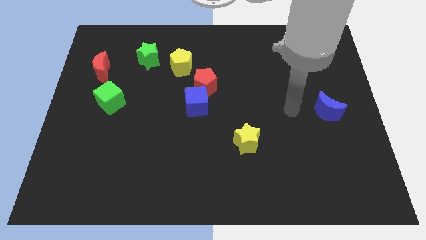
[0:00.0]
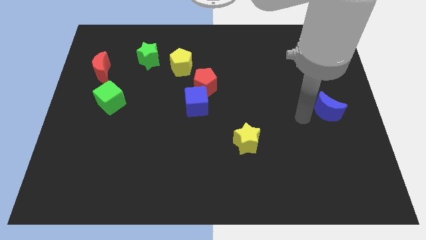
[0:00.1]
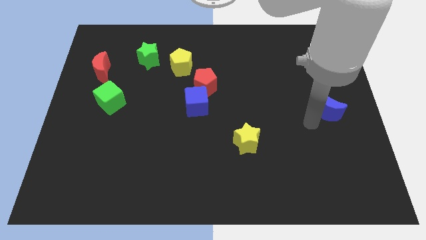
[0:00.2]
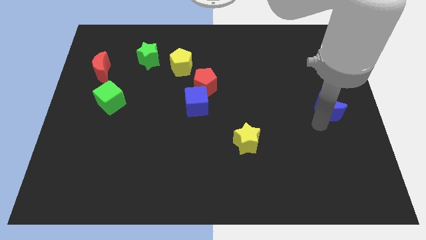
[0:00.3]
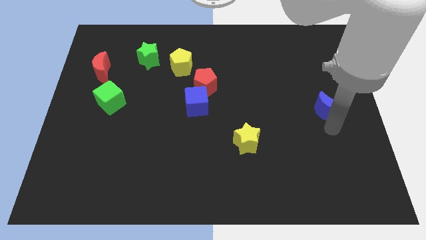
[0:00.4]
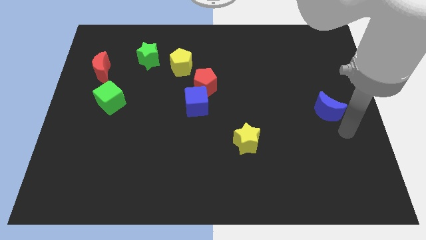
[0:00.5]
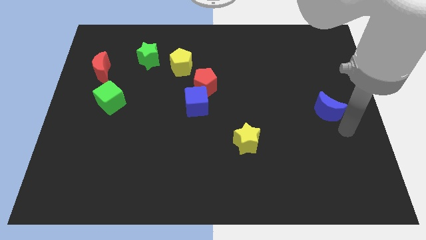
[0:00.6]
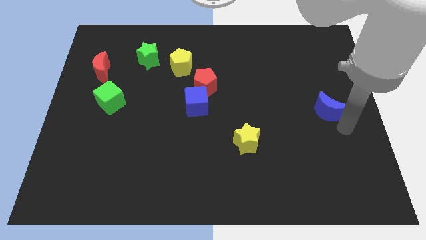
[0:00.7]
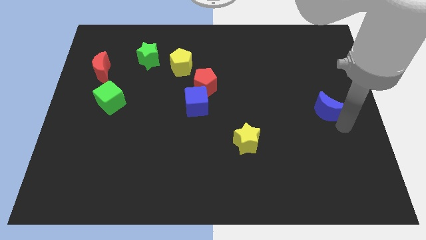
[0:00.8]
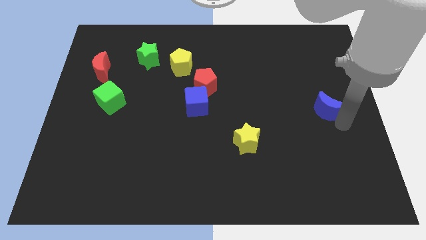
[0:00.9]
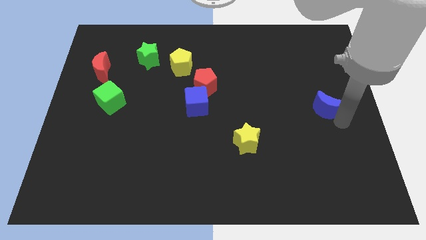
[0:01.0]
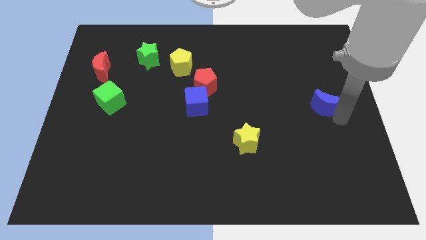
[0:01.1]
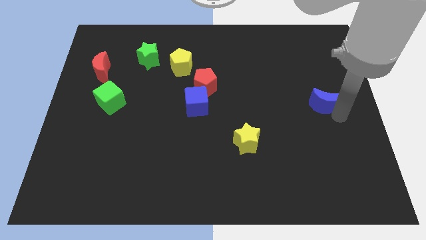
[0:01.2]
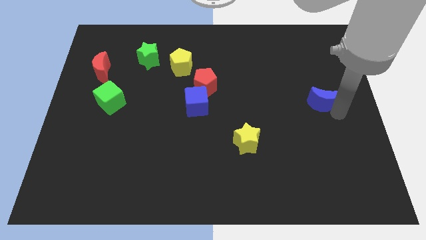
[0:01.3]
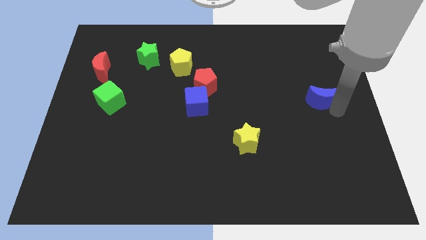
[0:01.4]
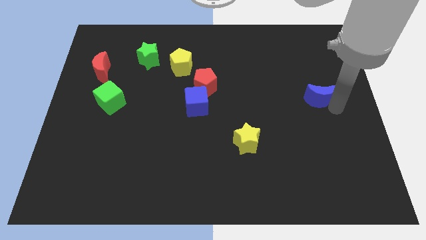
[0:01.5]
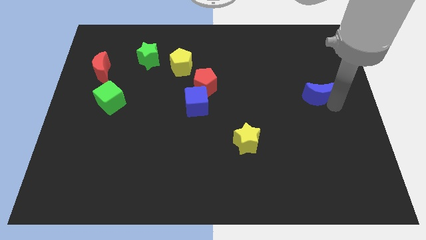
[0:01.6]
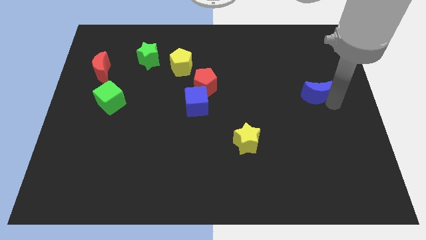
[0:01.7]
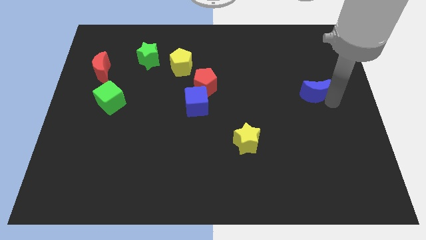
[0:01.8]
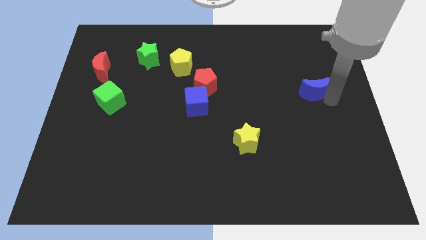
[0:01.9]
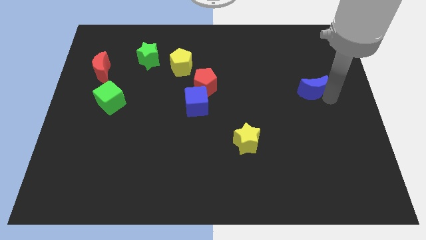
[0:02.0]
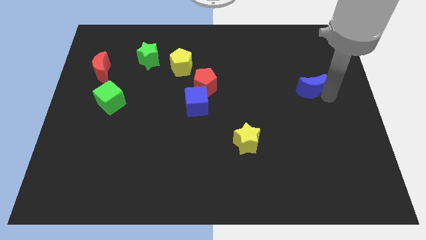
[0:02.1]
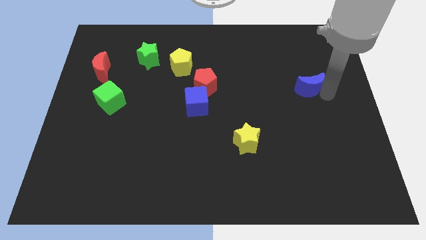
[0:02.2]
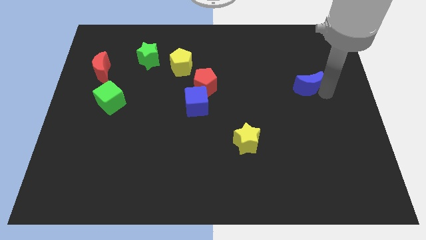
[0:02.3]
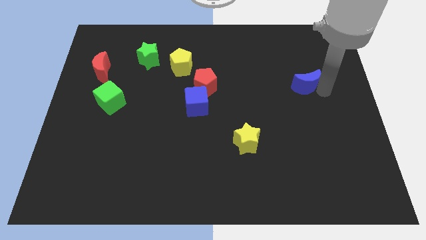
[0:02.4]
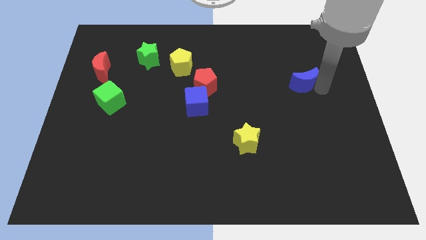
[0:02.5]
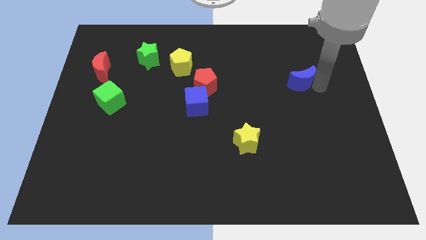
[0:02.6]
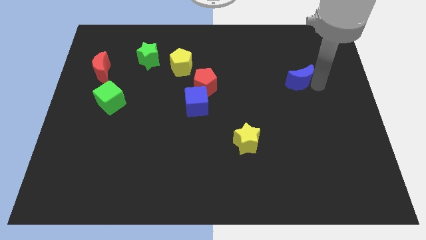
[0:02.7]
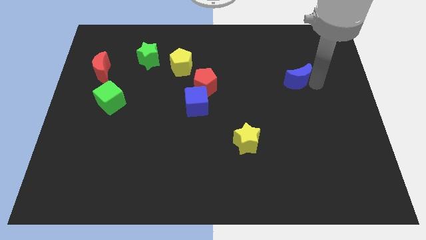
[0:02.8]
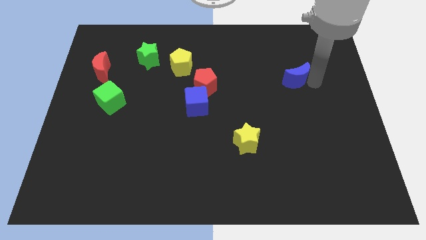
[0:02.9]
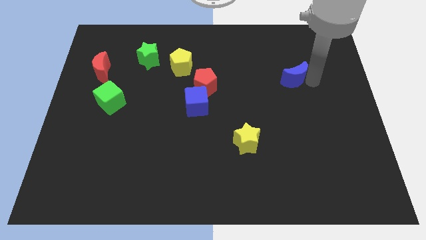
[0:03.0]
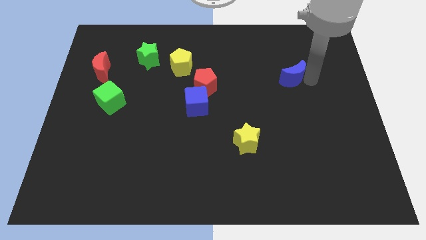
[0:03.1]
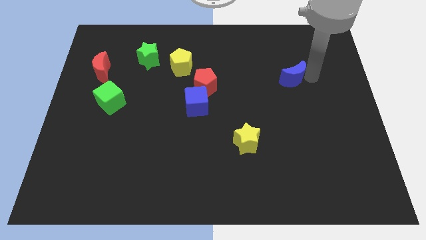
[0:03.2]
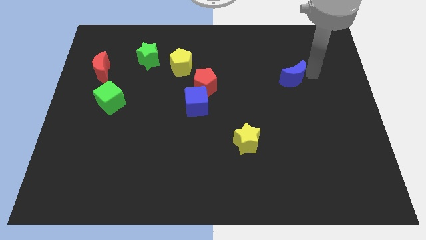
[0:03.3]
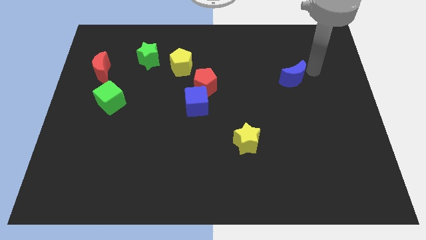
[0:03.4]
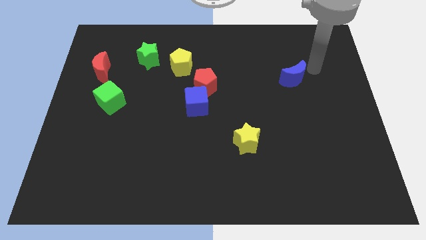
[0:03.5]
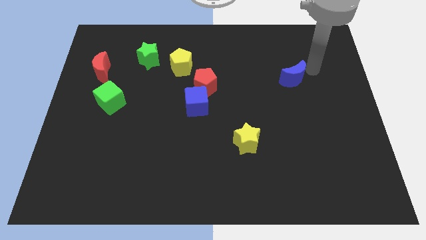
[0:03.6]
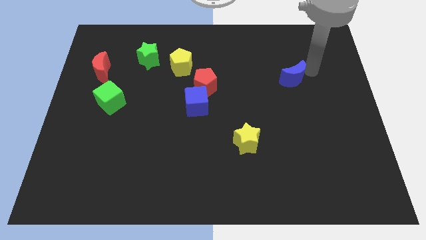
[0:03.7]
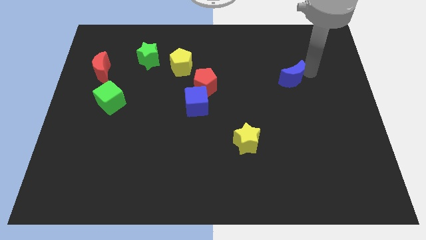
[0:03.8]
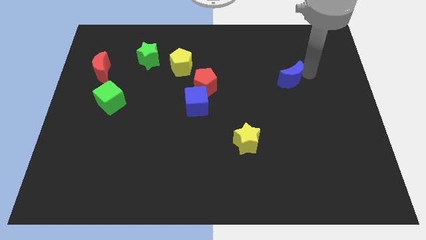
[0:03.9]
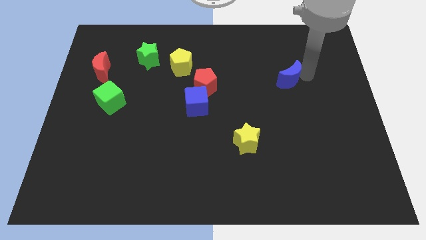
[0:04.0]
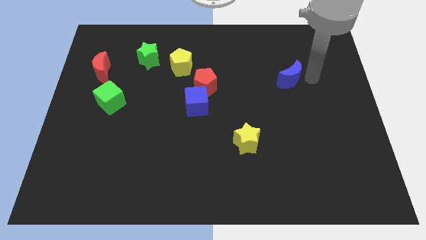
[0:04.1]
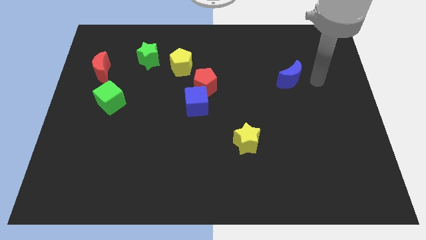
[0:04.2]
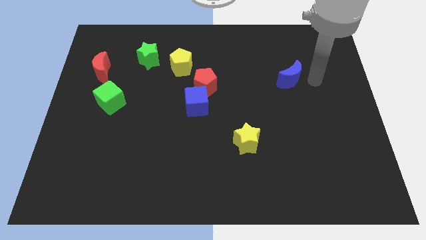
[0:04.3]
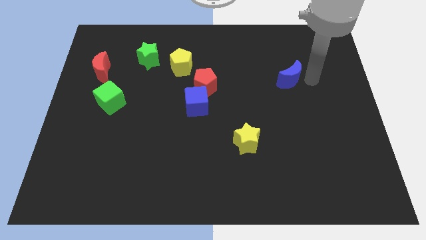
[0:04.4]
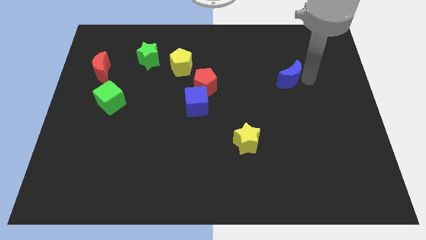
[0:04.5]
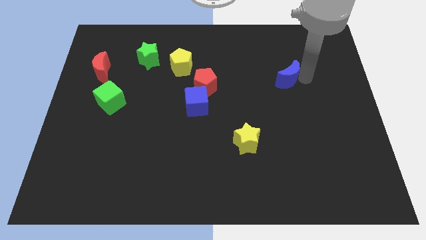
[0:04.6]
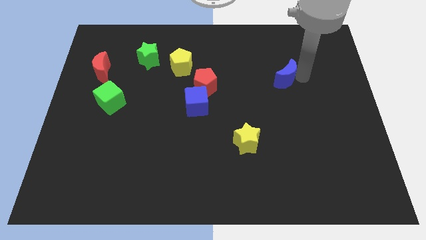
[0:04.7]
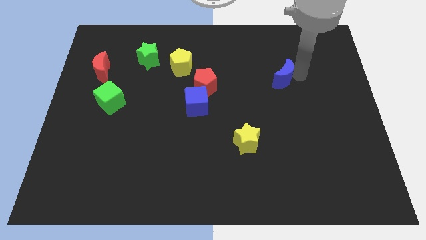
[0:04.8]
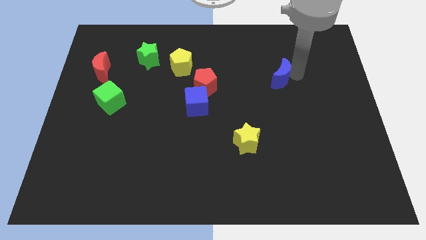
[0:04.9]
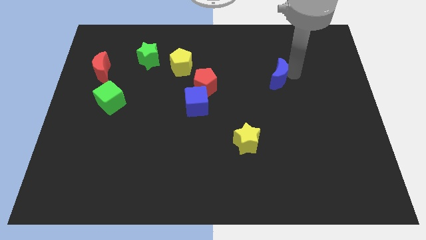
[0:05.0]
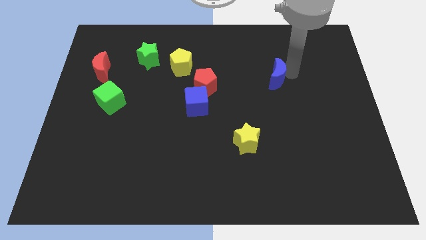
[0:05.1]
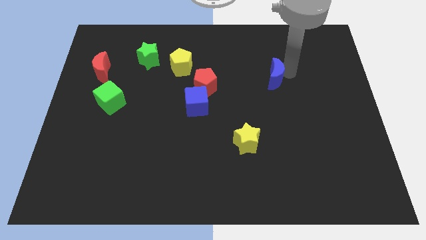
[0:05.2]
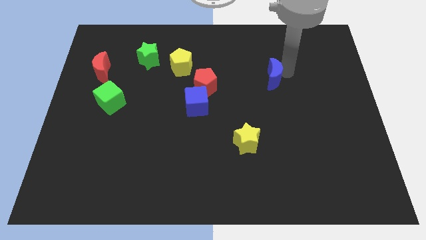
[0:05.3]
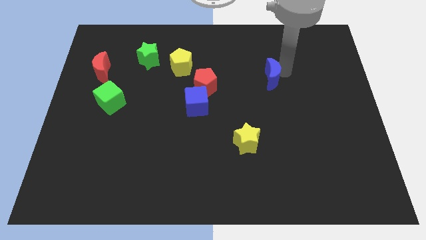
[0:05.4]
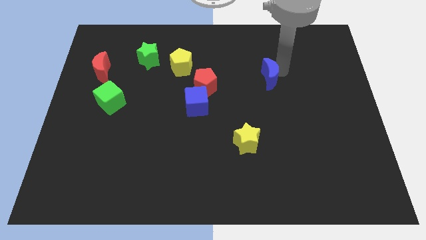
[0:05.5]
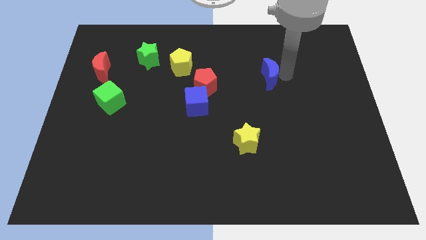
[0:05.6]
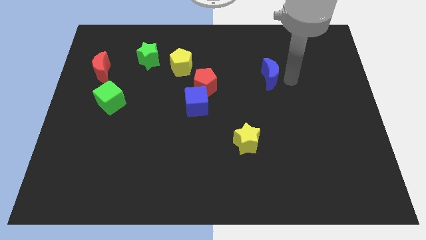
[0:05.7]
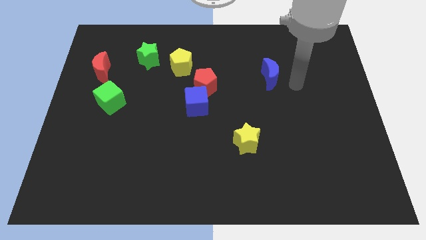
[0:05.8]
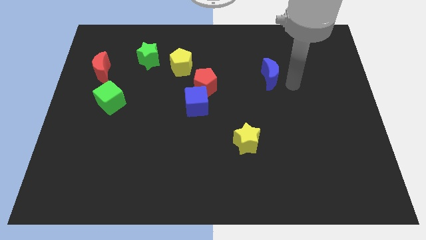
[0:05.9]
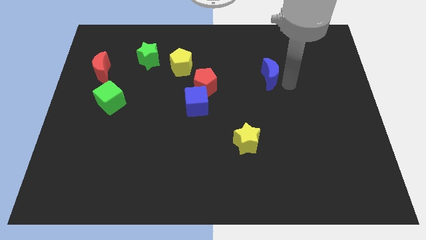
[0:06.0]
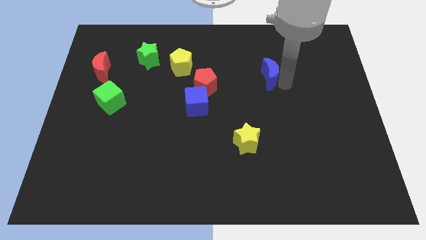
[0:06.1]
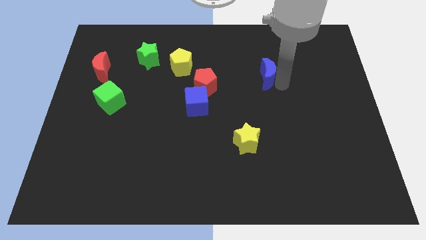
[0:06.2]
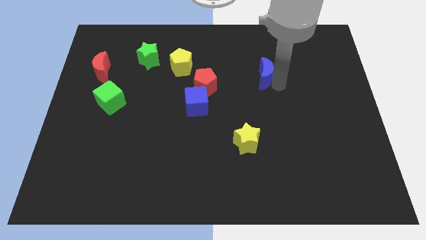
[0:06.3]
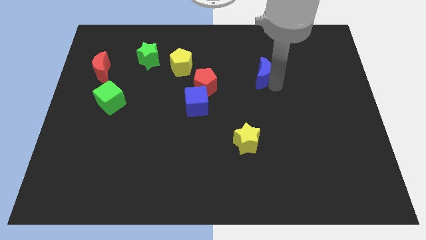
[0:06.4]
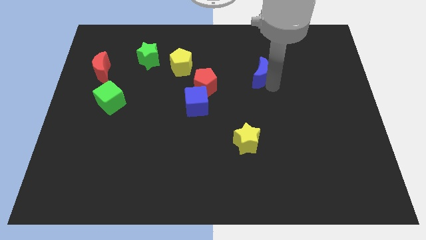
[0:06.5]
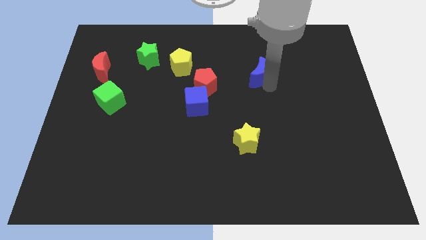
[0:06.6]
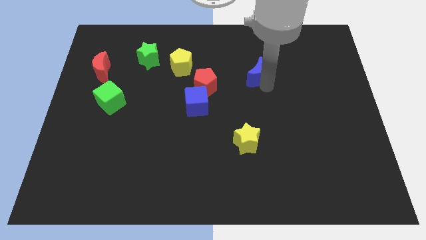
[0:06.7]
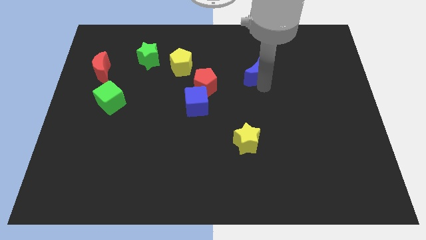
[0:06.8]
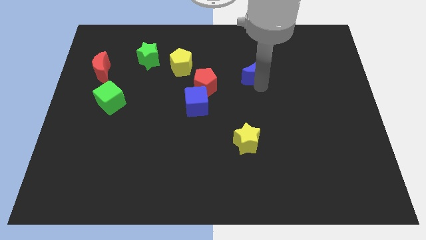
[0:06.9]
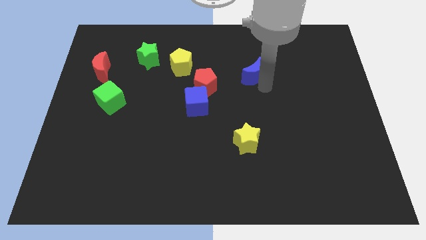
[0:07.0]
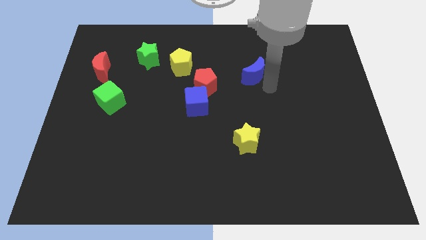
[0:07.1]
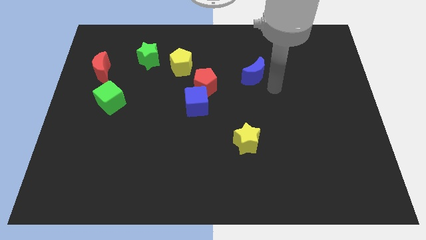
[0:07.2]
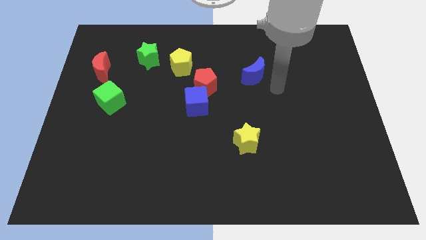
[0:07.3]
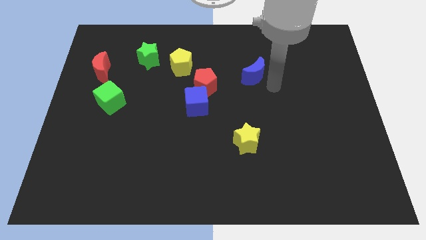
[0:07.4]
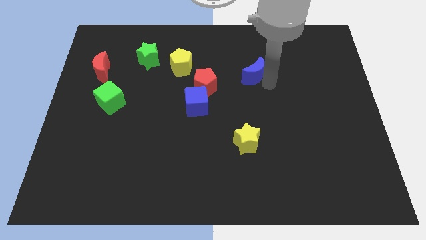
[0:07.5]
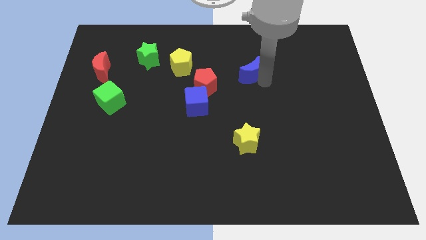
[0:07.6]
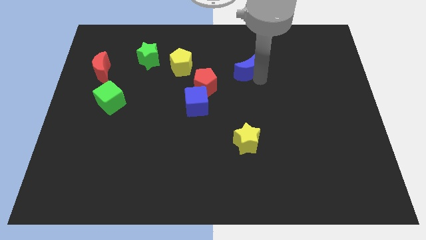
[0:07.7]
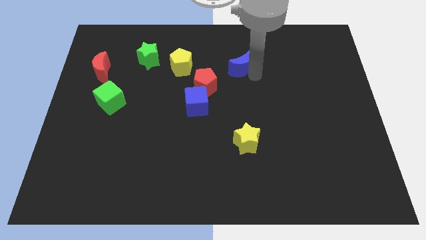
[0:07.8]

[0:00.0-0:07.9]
slide the blue moon to the right of the yellow pentagon
